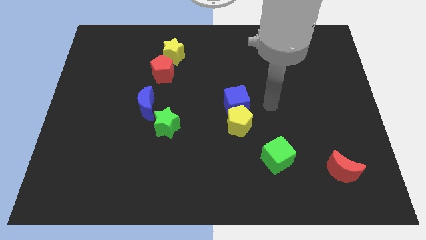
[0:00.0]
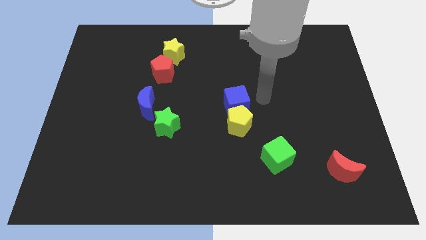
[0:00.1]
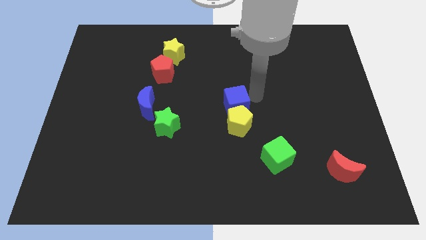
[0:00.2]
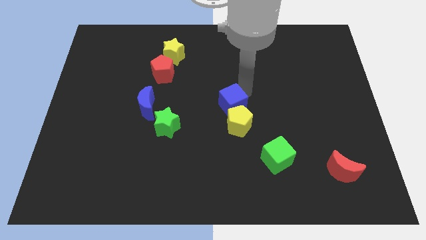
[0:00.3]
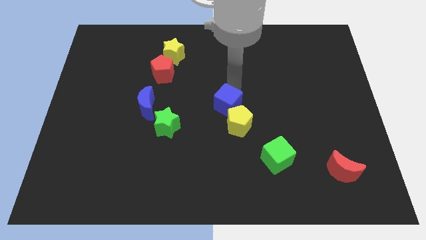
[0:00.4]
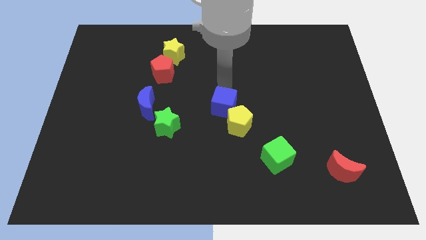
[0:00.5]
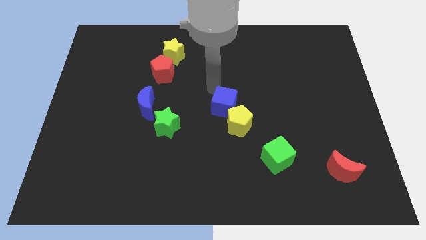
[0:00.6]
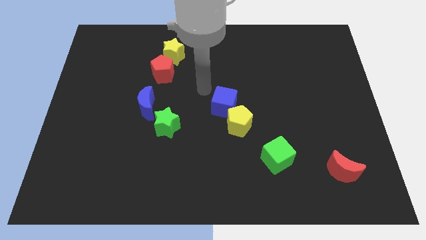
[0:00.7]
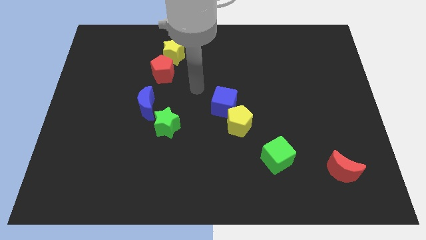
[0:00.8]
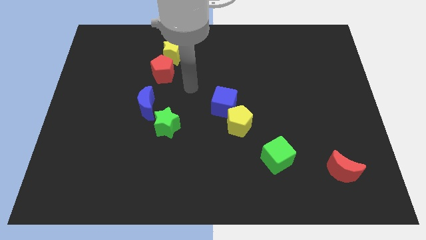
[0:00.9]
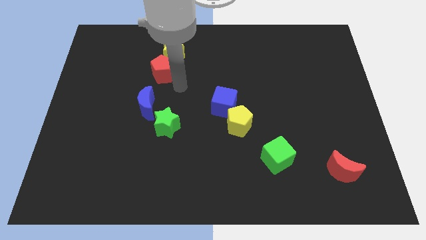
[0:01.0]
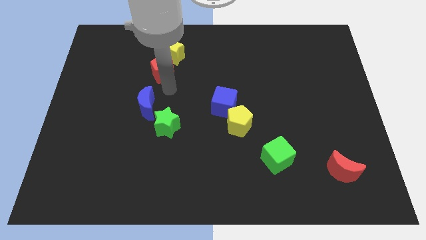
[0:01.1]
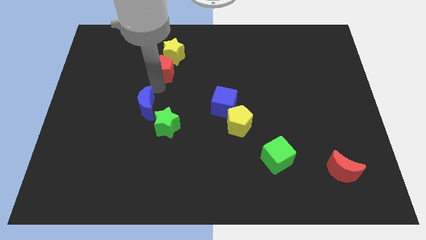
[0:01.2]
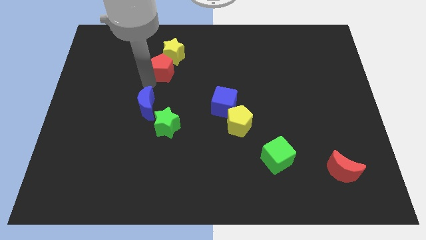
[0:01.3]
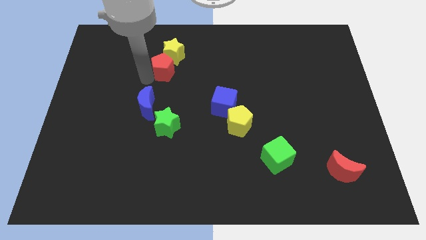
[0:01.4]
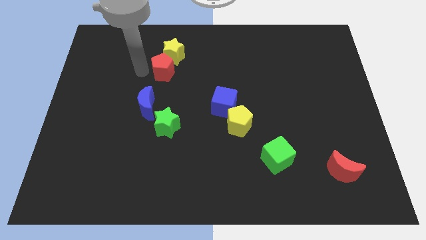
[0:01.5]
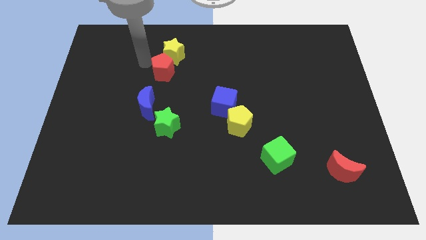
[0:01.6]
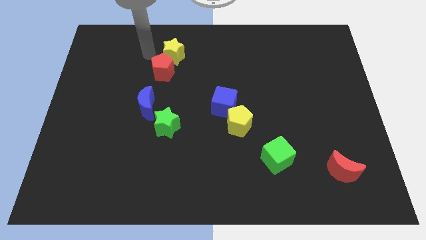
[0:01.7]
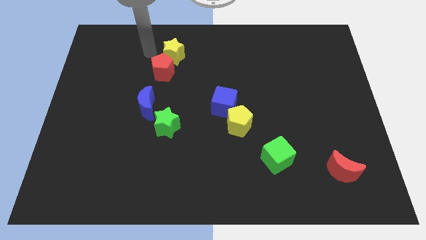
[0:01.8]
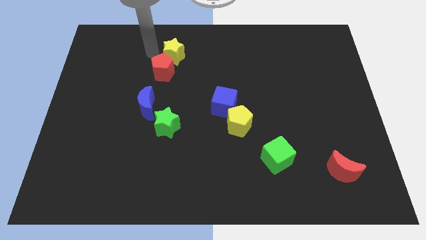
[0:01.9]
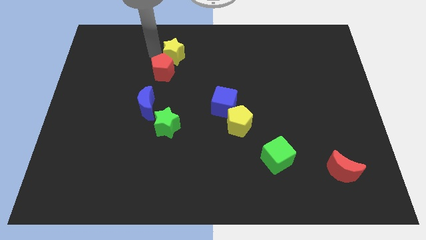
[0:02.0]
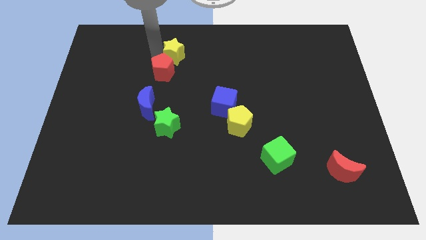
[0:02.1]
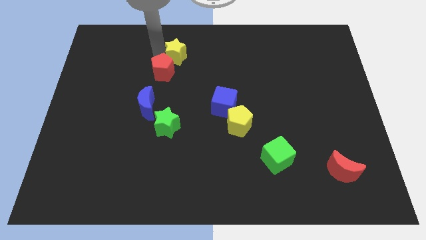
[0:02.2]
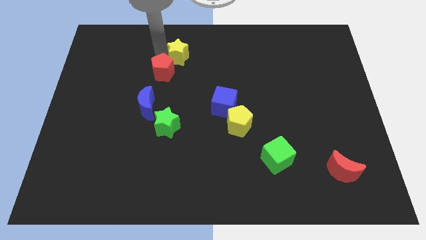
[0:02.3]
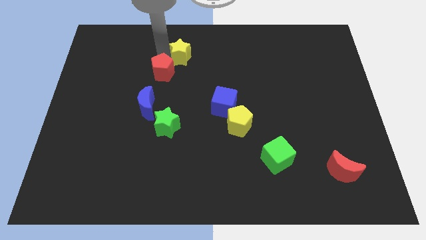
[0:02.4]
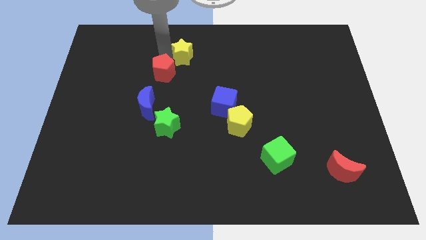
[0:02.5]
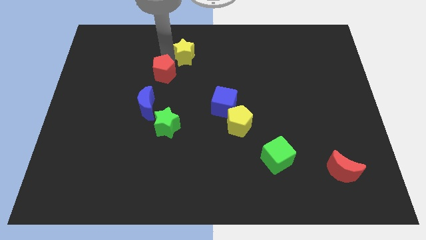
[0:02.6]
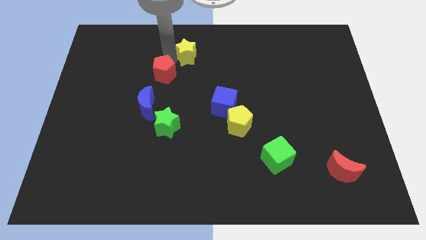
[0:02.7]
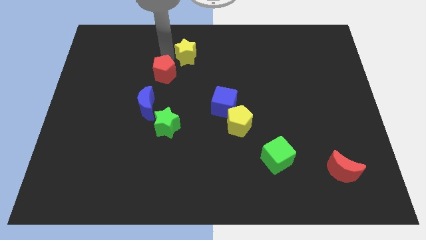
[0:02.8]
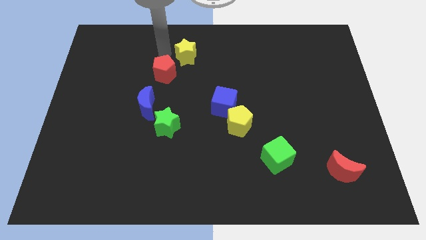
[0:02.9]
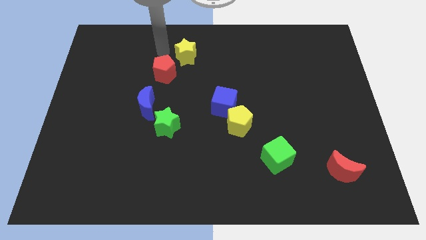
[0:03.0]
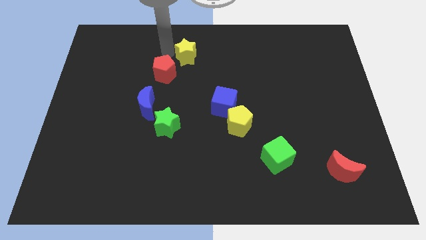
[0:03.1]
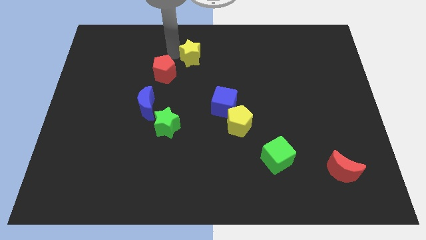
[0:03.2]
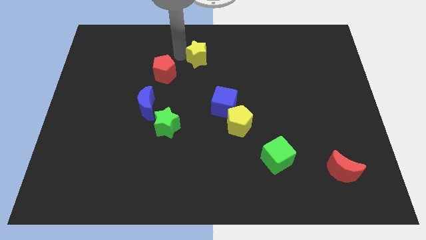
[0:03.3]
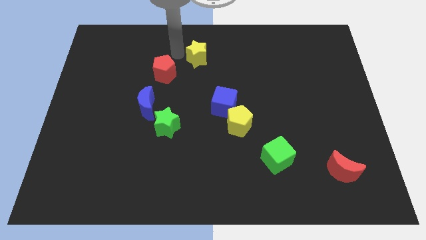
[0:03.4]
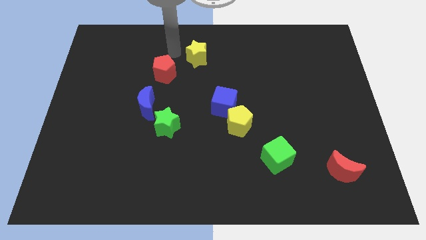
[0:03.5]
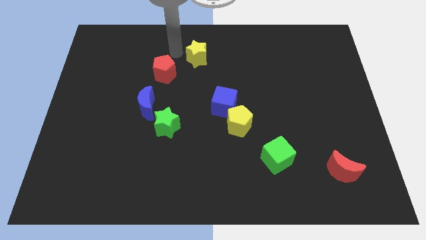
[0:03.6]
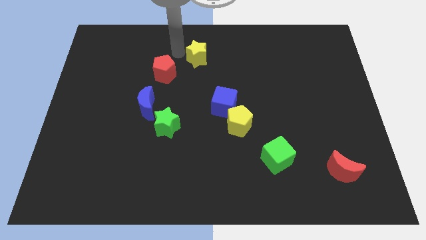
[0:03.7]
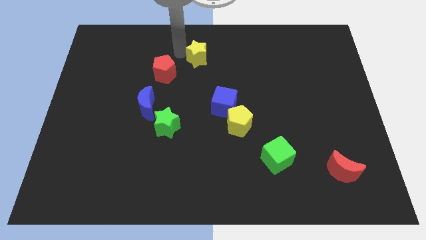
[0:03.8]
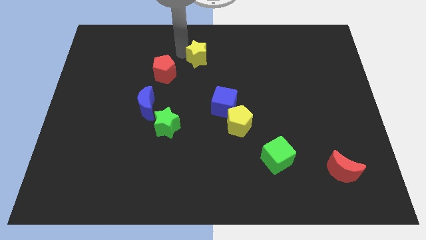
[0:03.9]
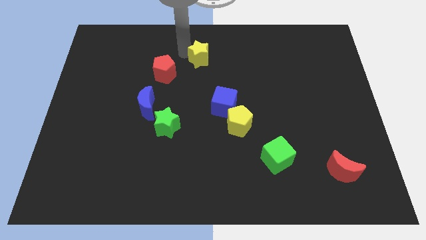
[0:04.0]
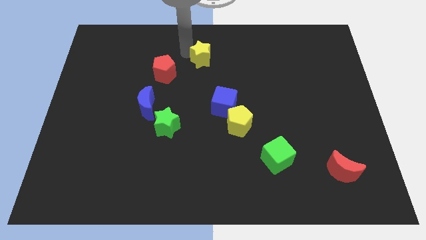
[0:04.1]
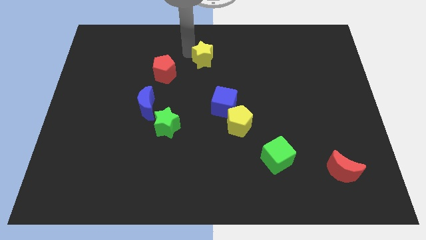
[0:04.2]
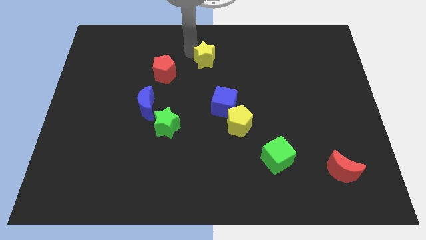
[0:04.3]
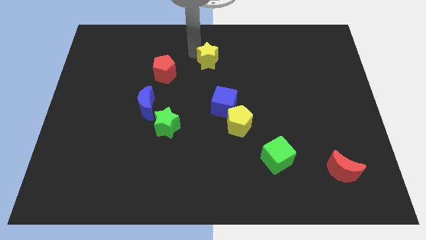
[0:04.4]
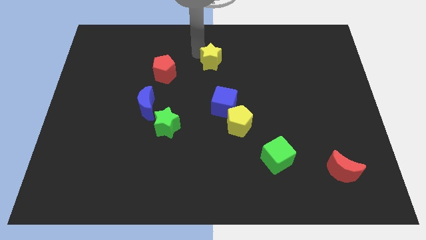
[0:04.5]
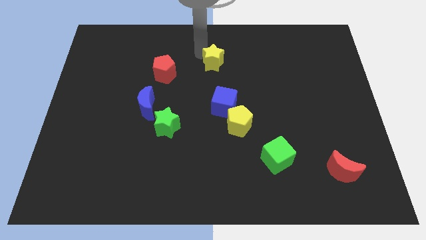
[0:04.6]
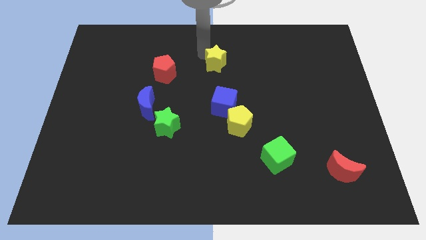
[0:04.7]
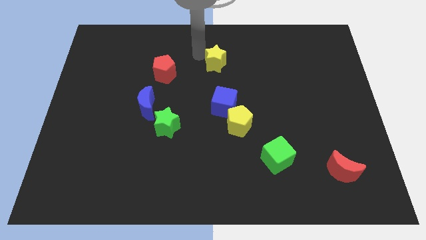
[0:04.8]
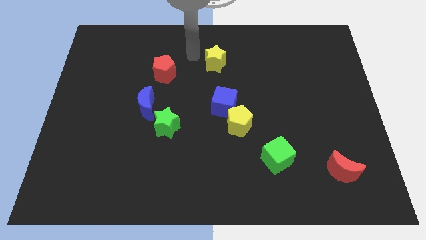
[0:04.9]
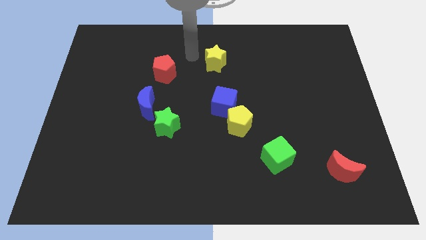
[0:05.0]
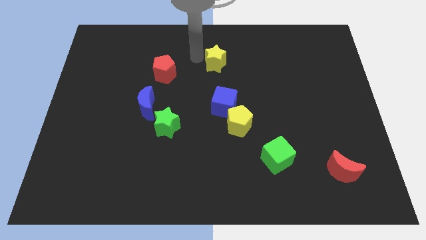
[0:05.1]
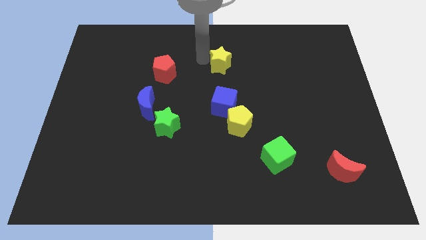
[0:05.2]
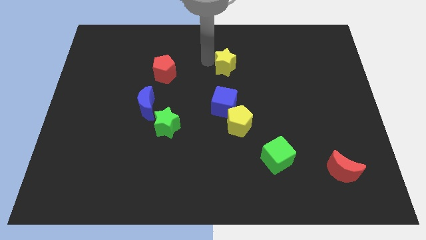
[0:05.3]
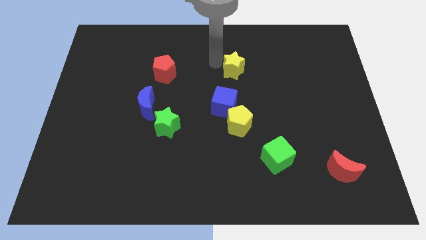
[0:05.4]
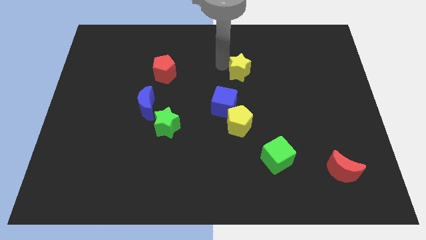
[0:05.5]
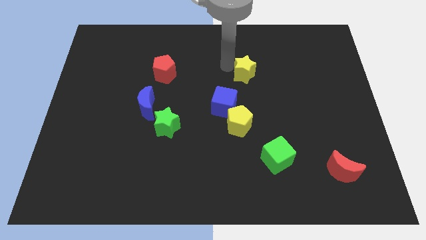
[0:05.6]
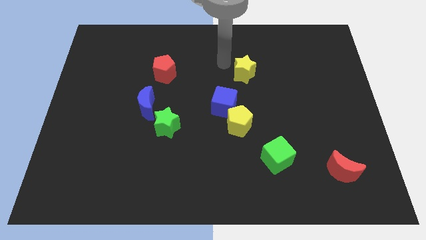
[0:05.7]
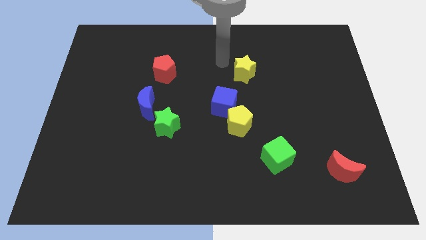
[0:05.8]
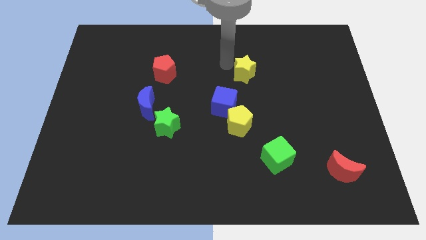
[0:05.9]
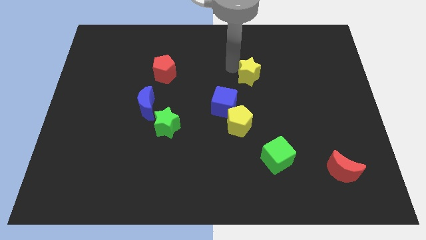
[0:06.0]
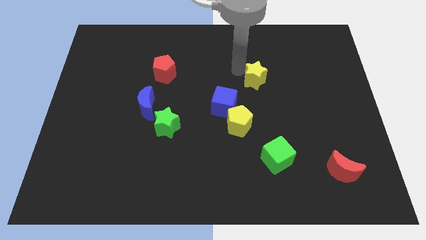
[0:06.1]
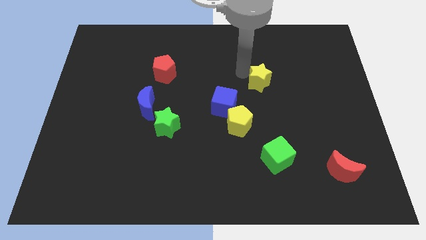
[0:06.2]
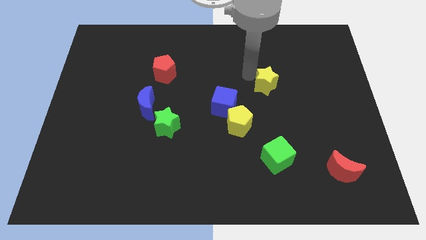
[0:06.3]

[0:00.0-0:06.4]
push the yellow star diagonally down and right

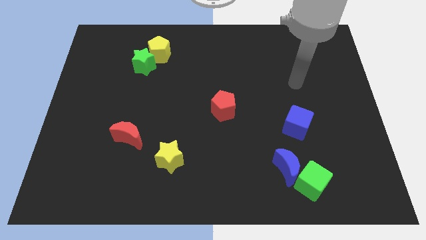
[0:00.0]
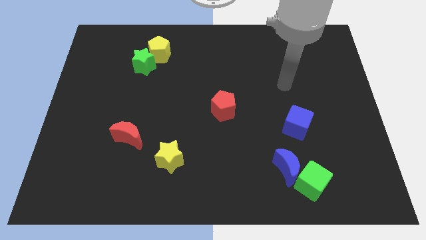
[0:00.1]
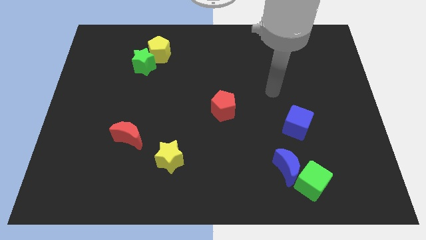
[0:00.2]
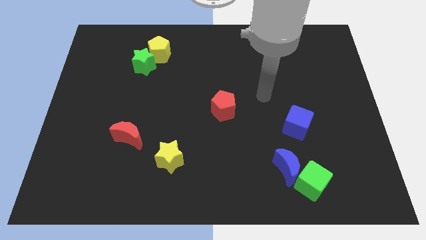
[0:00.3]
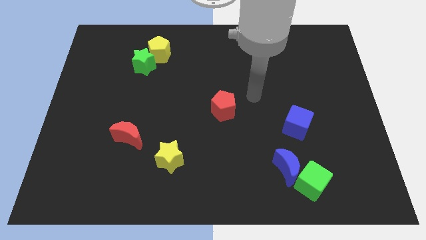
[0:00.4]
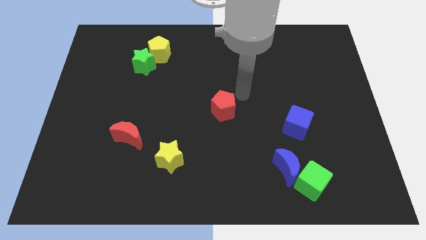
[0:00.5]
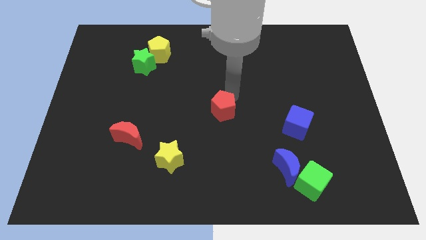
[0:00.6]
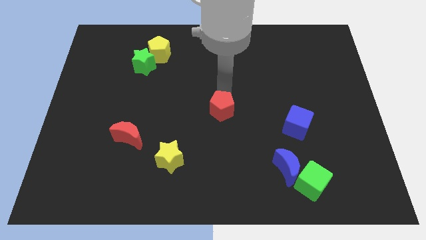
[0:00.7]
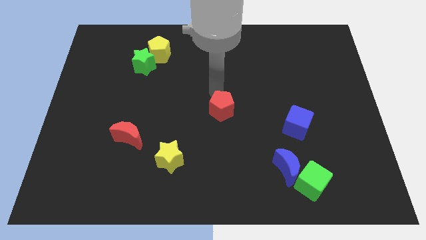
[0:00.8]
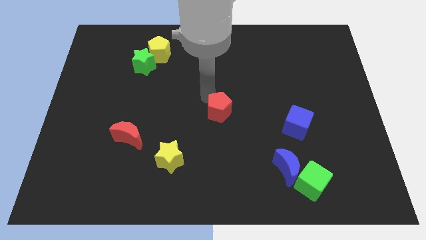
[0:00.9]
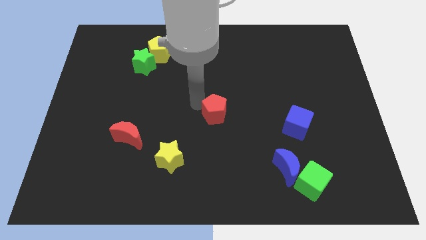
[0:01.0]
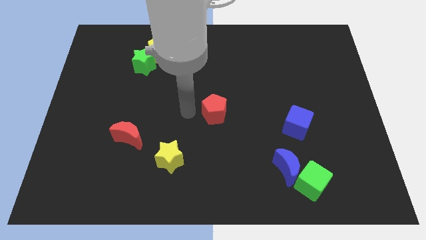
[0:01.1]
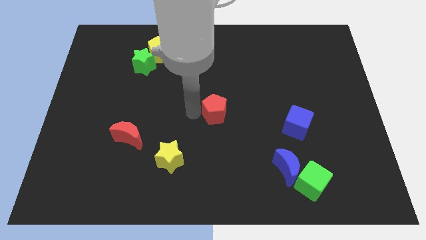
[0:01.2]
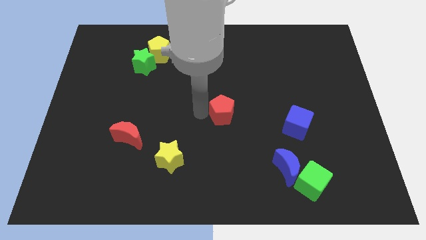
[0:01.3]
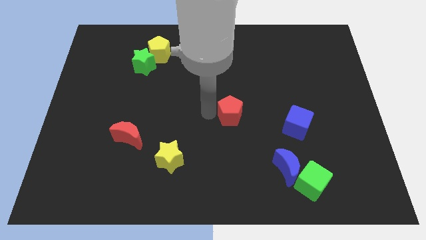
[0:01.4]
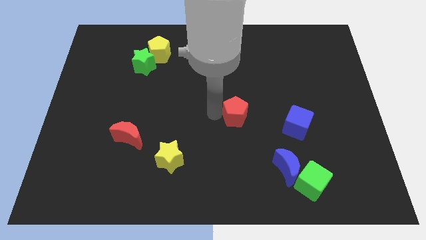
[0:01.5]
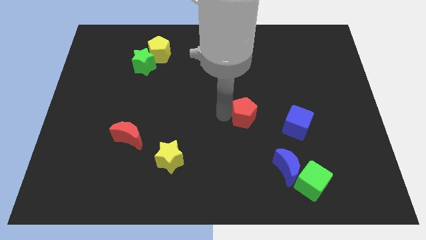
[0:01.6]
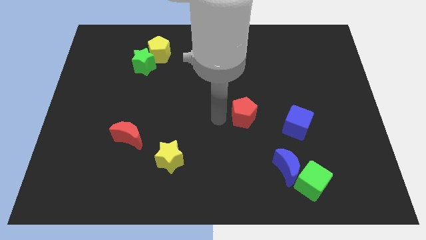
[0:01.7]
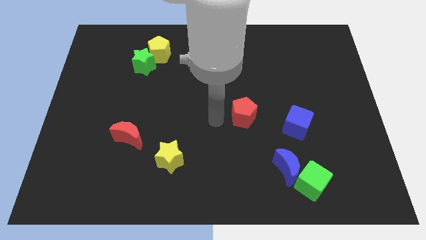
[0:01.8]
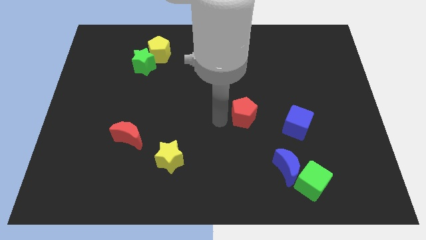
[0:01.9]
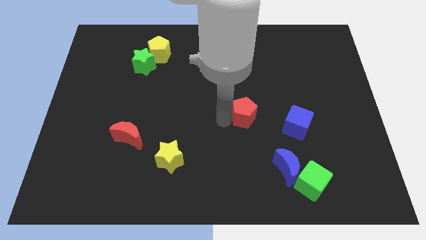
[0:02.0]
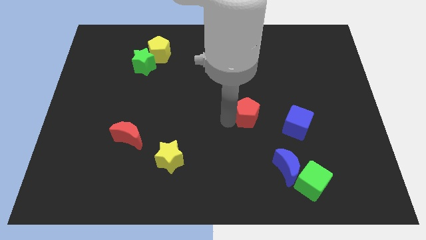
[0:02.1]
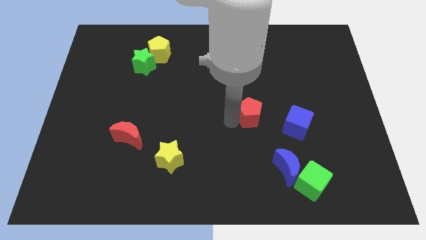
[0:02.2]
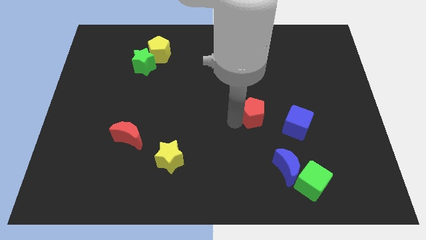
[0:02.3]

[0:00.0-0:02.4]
push the red pentagon a little to the right
